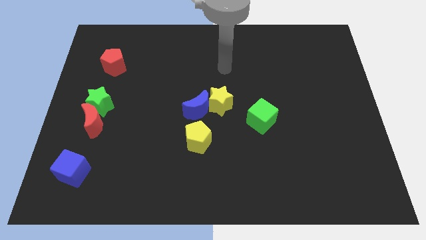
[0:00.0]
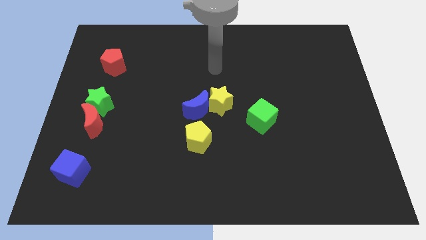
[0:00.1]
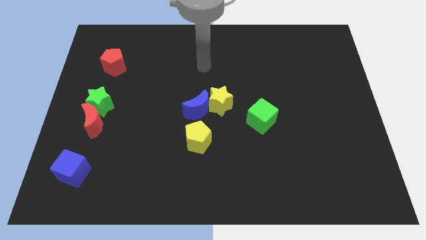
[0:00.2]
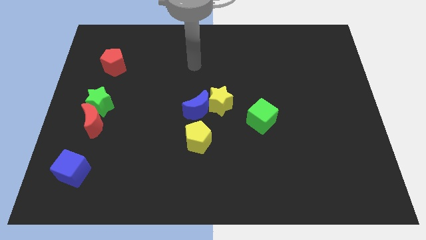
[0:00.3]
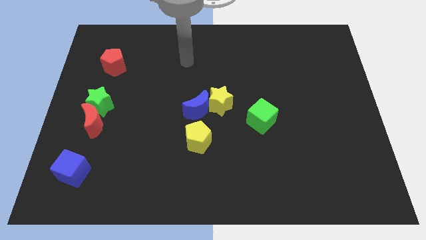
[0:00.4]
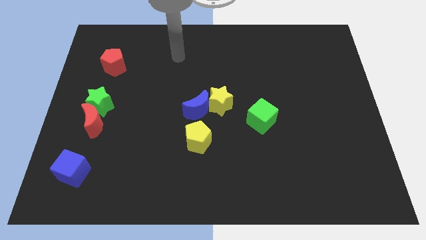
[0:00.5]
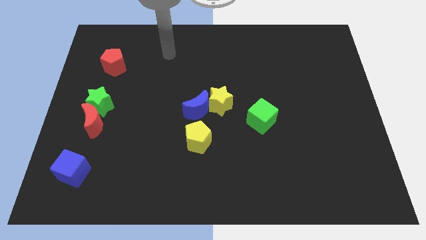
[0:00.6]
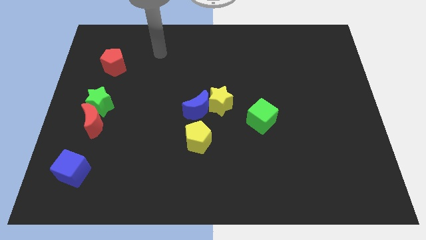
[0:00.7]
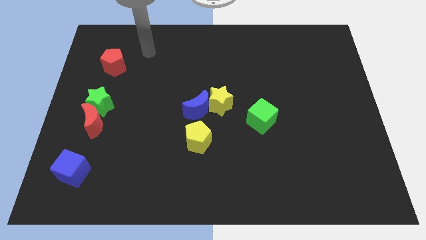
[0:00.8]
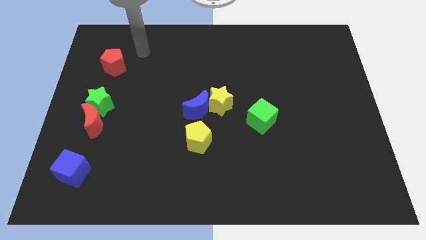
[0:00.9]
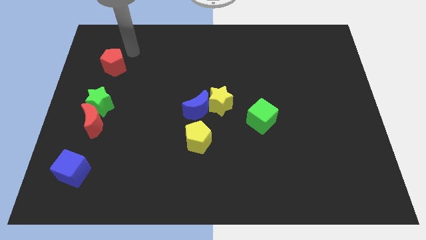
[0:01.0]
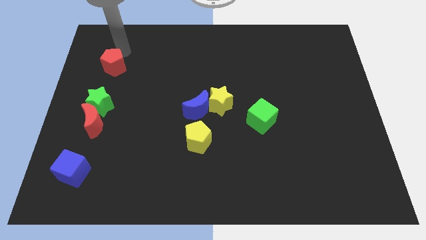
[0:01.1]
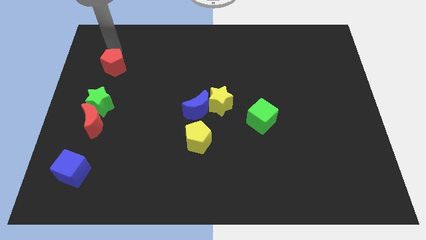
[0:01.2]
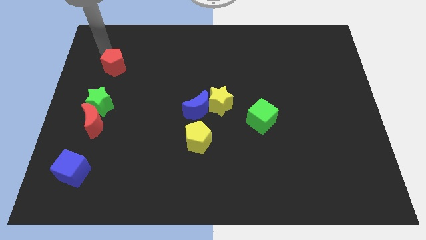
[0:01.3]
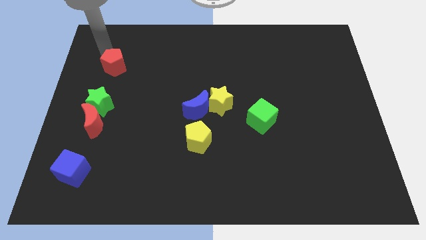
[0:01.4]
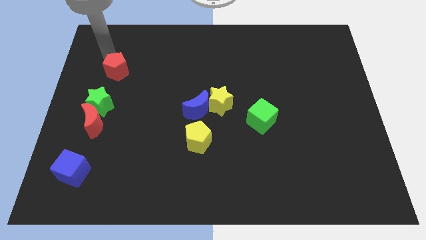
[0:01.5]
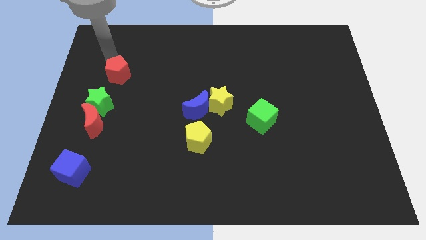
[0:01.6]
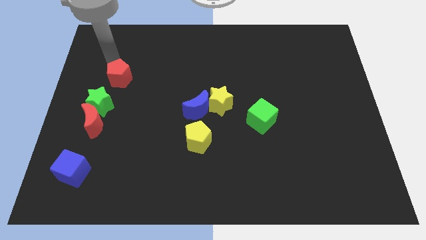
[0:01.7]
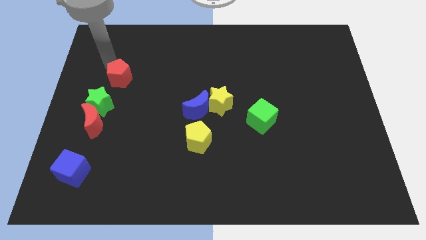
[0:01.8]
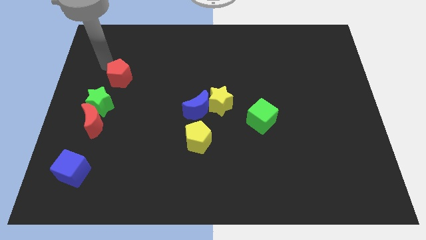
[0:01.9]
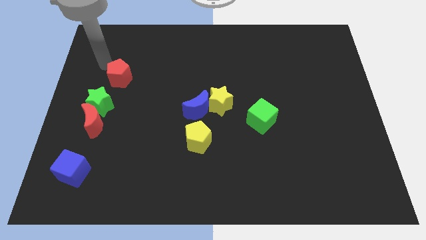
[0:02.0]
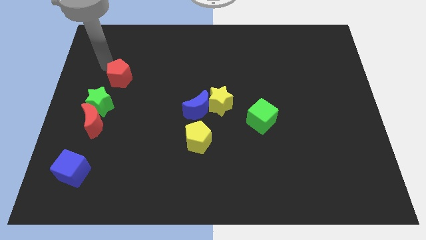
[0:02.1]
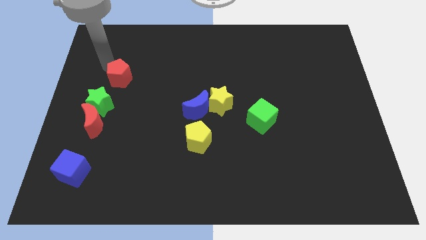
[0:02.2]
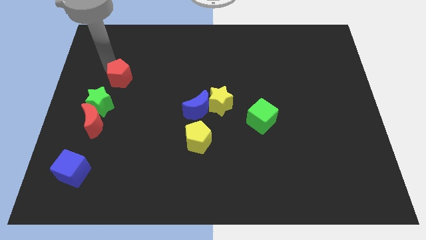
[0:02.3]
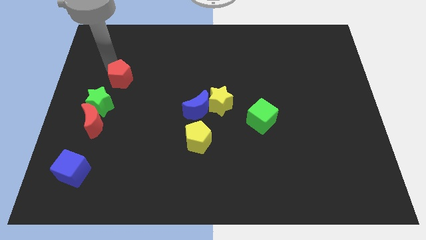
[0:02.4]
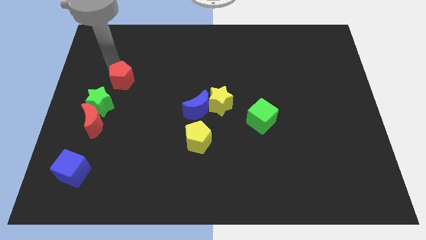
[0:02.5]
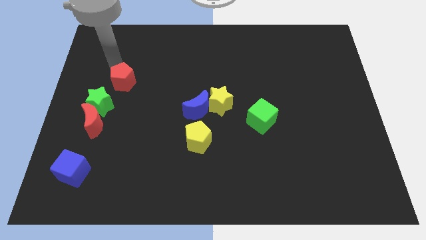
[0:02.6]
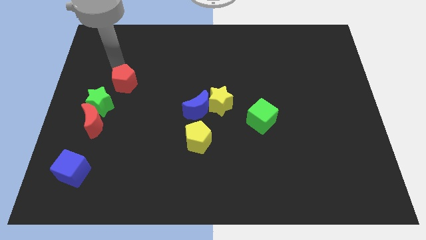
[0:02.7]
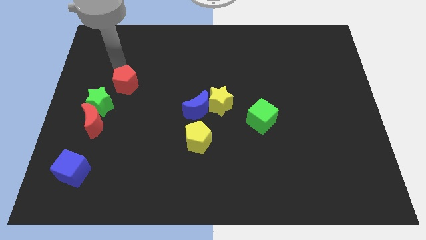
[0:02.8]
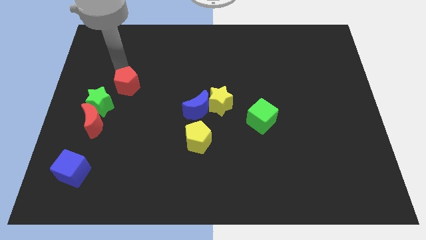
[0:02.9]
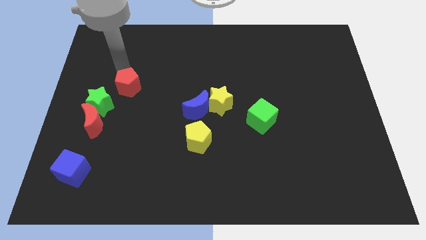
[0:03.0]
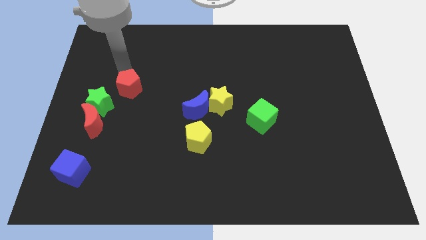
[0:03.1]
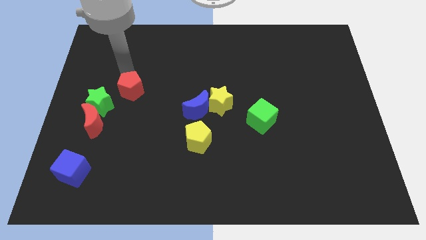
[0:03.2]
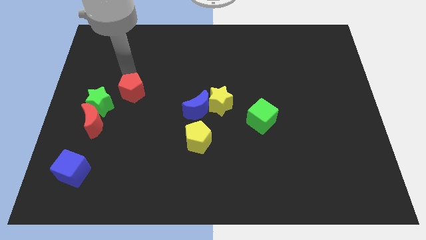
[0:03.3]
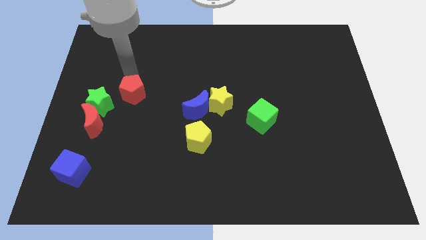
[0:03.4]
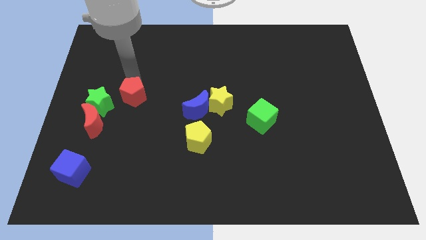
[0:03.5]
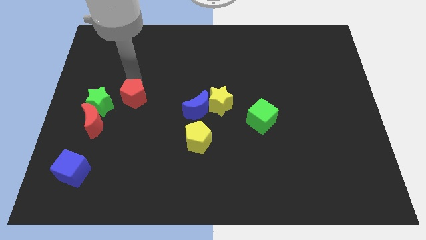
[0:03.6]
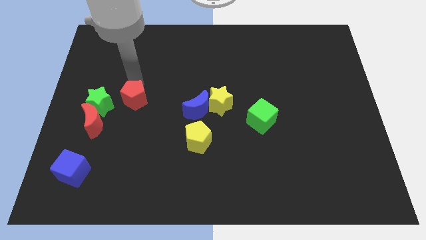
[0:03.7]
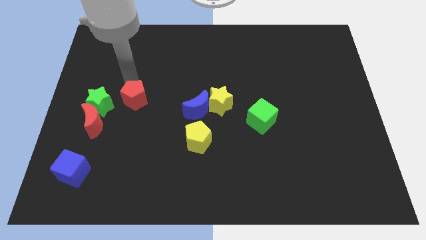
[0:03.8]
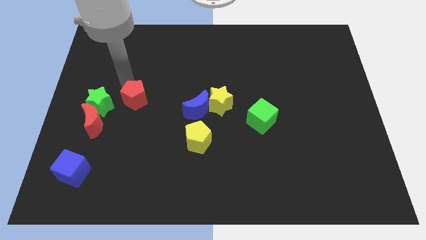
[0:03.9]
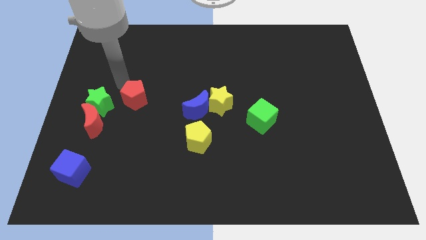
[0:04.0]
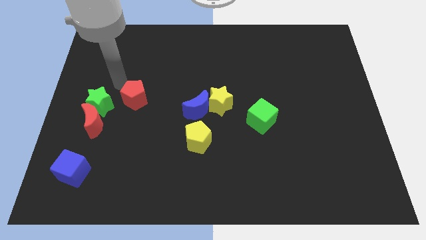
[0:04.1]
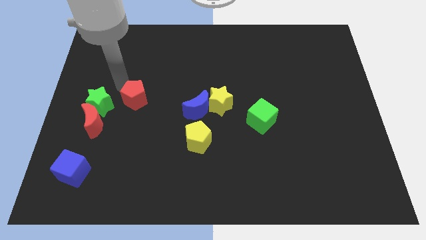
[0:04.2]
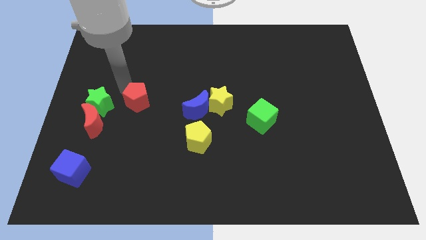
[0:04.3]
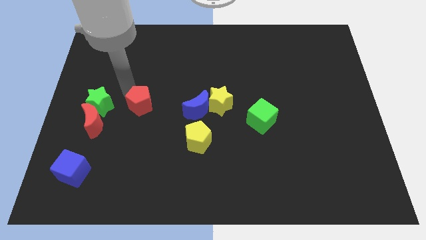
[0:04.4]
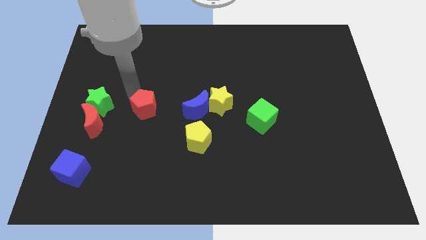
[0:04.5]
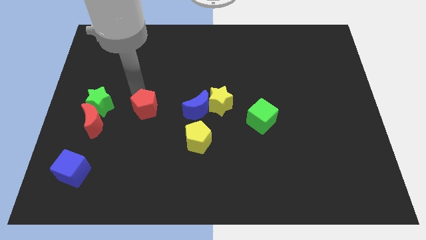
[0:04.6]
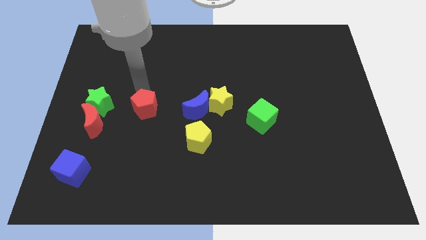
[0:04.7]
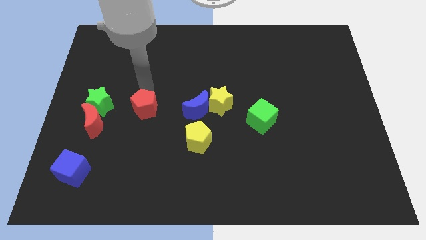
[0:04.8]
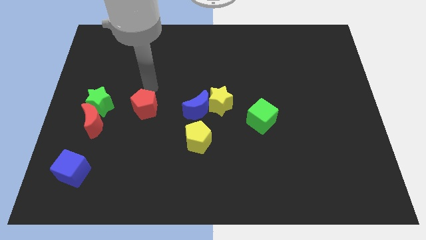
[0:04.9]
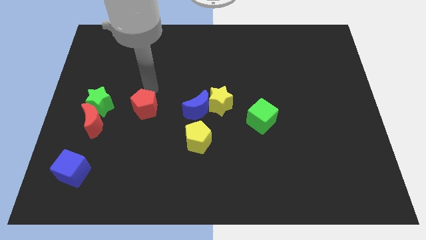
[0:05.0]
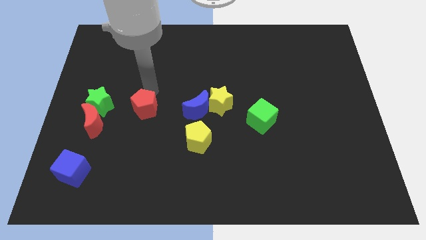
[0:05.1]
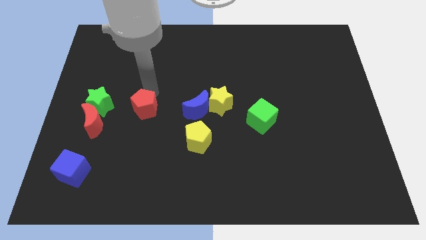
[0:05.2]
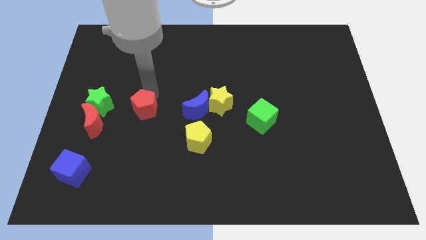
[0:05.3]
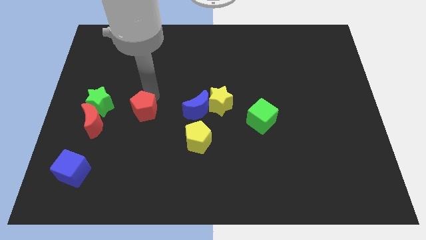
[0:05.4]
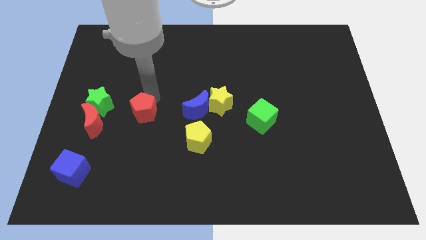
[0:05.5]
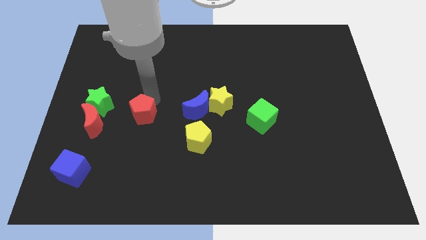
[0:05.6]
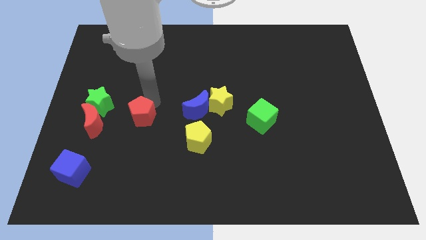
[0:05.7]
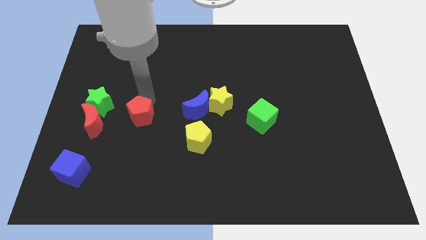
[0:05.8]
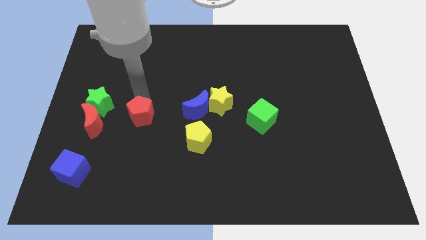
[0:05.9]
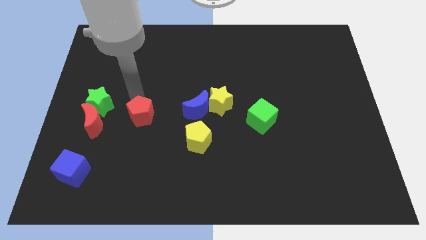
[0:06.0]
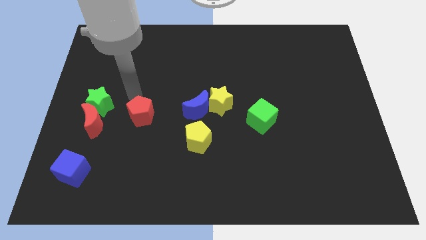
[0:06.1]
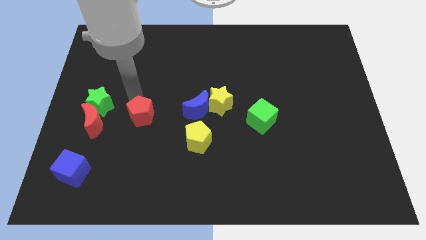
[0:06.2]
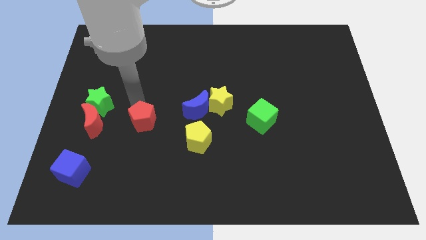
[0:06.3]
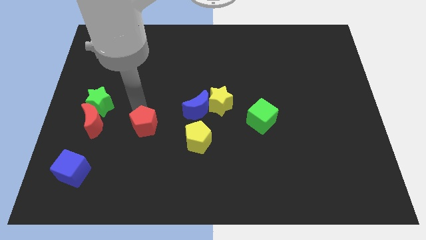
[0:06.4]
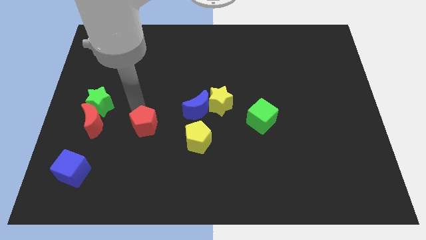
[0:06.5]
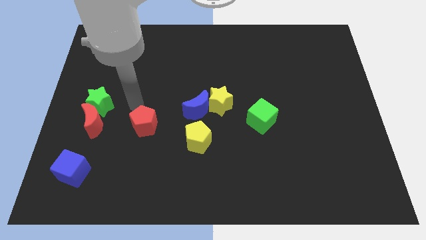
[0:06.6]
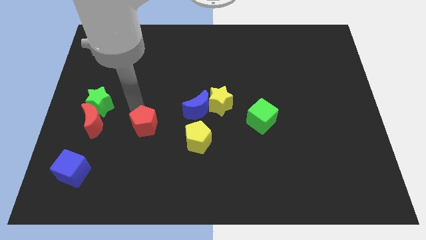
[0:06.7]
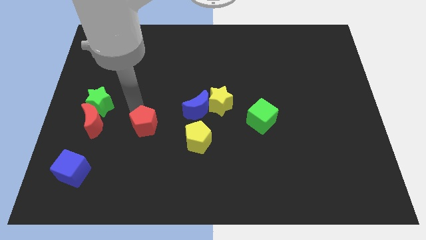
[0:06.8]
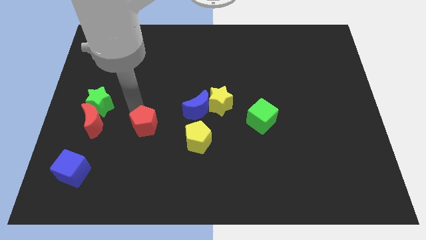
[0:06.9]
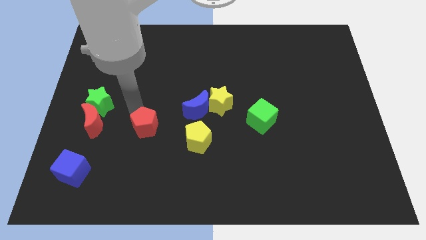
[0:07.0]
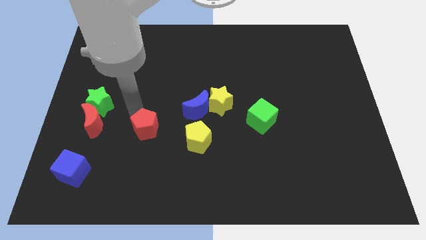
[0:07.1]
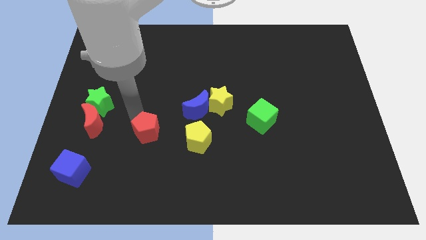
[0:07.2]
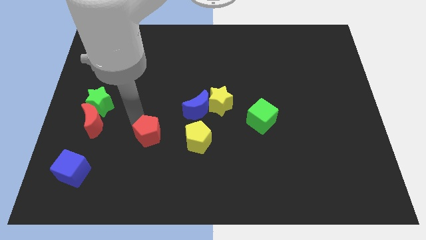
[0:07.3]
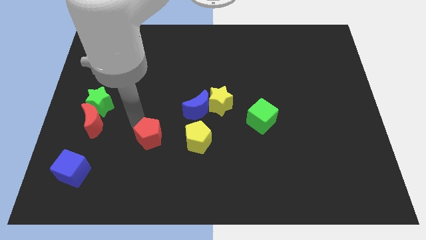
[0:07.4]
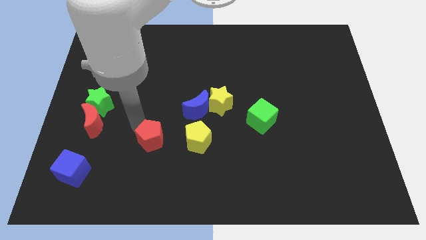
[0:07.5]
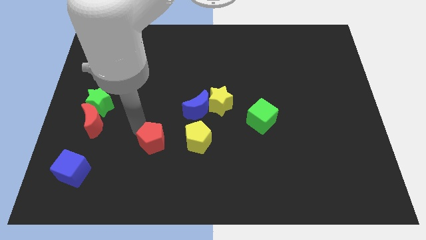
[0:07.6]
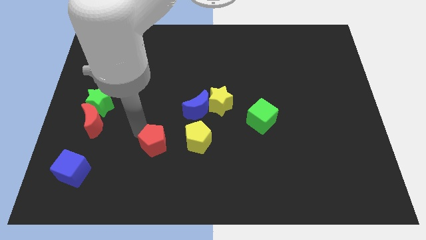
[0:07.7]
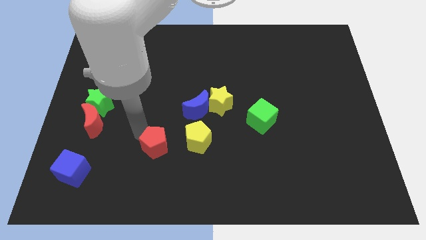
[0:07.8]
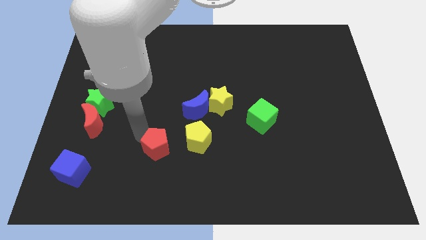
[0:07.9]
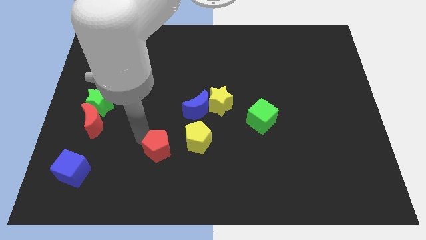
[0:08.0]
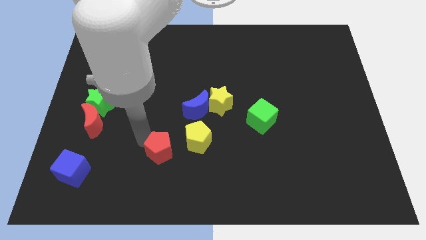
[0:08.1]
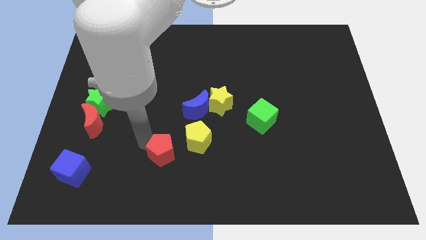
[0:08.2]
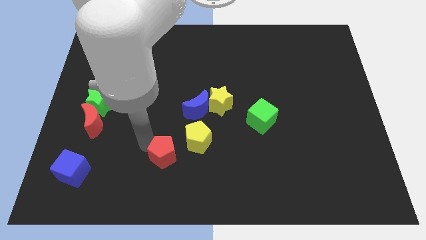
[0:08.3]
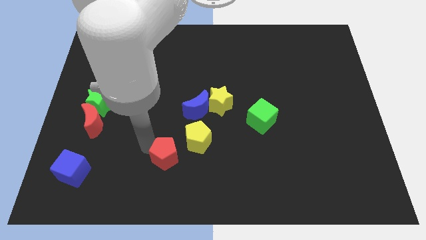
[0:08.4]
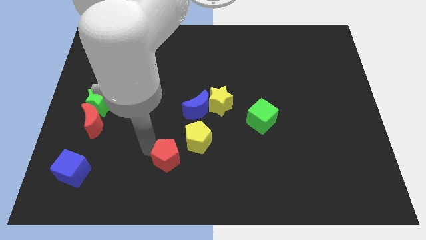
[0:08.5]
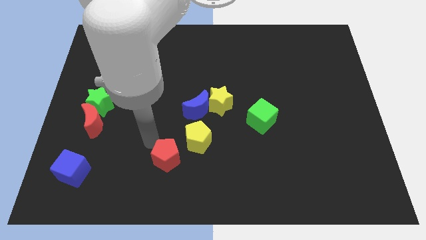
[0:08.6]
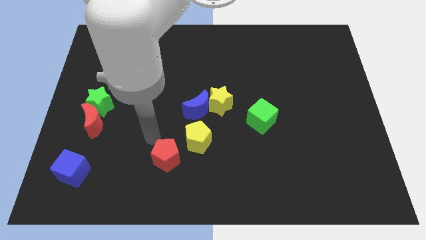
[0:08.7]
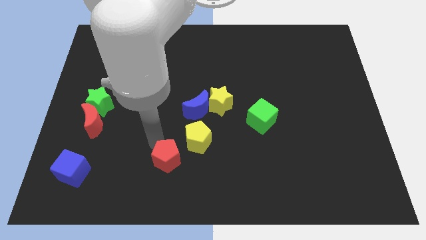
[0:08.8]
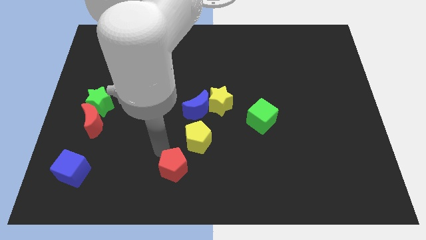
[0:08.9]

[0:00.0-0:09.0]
slide the red pentagon to the bottom side
